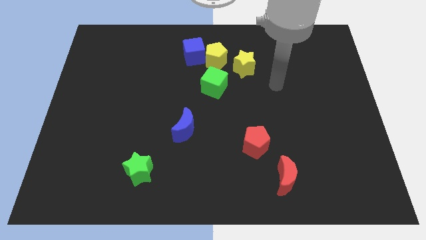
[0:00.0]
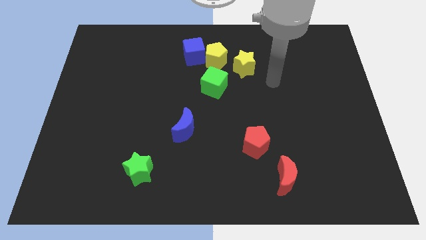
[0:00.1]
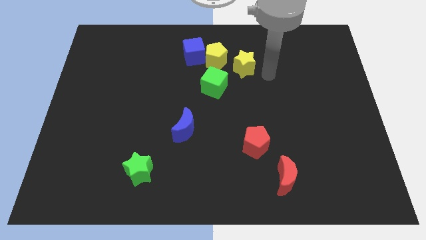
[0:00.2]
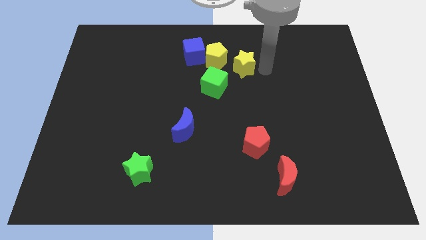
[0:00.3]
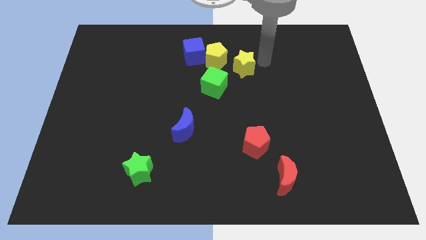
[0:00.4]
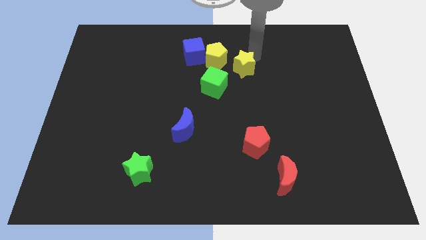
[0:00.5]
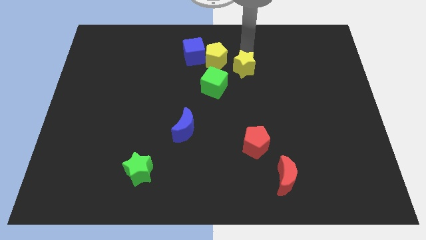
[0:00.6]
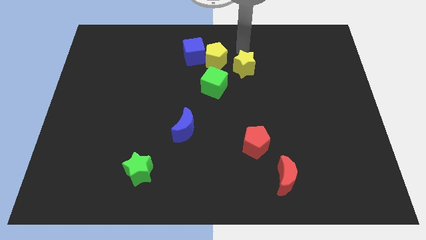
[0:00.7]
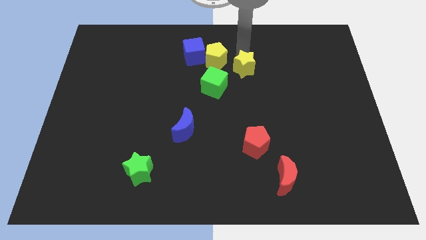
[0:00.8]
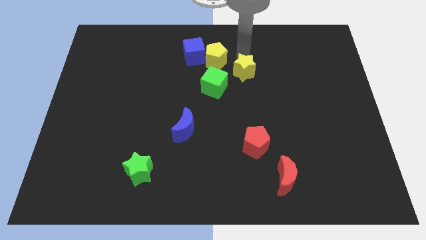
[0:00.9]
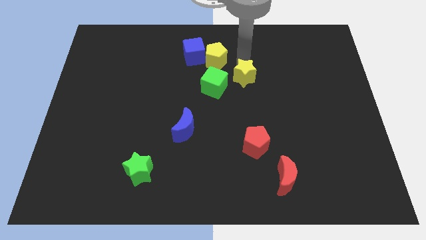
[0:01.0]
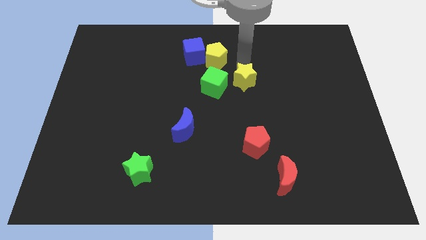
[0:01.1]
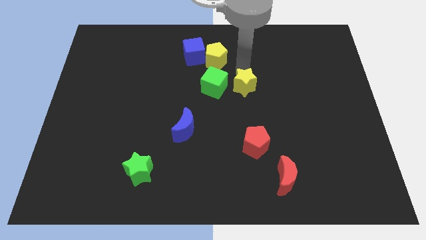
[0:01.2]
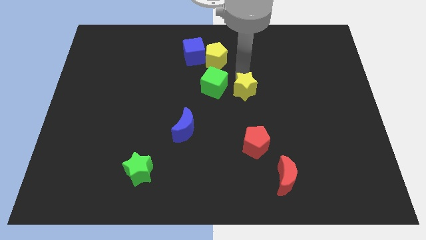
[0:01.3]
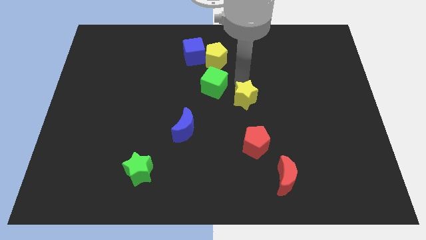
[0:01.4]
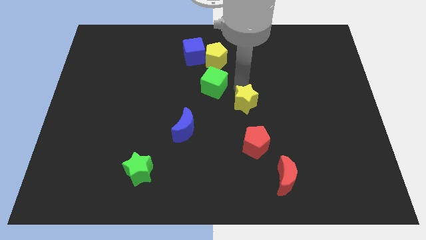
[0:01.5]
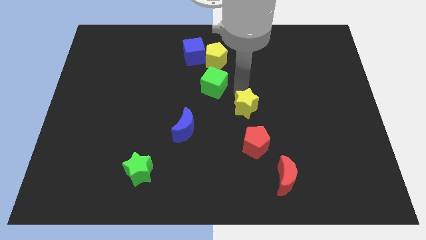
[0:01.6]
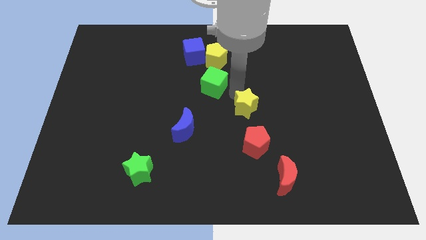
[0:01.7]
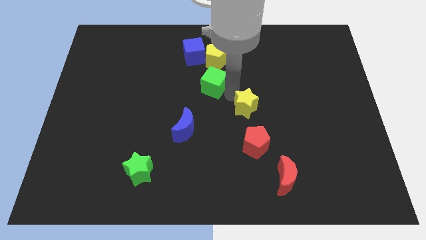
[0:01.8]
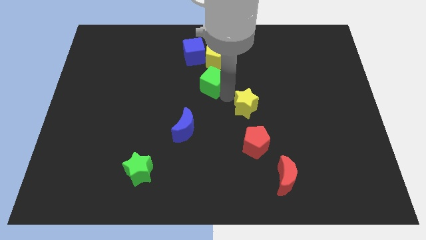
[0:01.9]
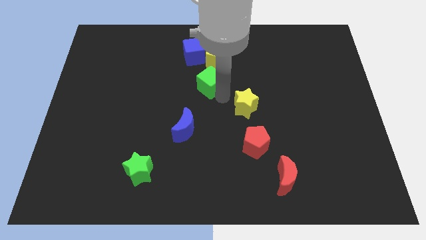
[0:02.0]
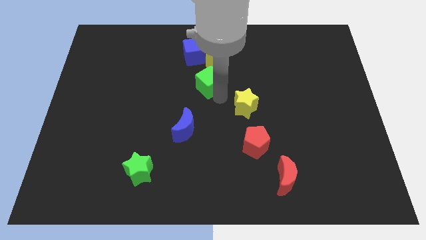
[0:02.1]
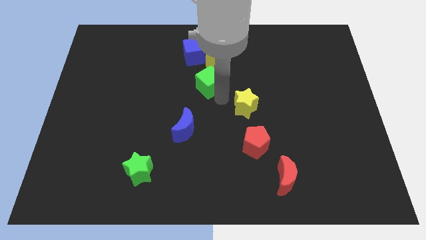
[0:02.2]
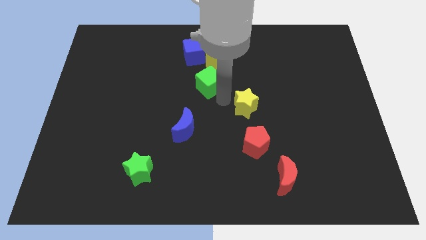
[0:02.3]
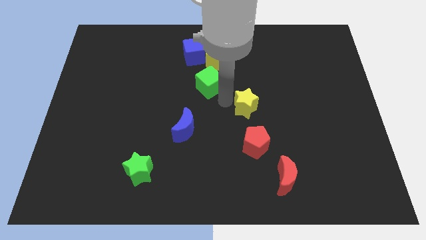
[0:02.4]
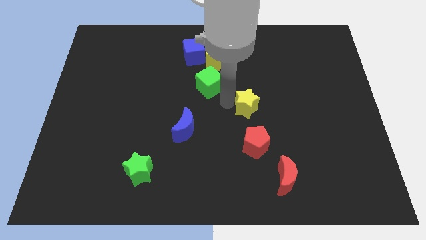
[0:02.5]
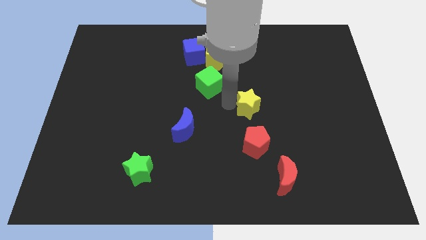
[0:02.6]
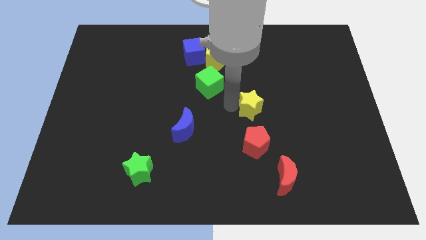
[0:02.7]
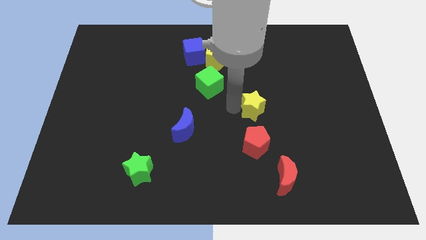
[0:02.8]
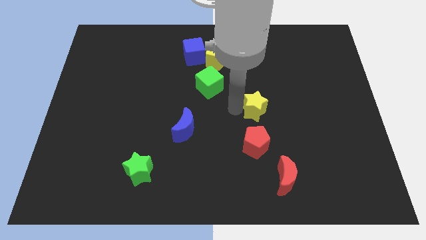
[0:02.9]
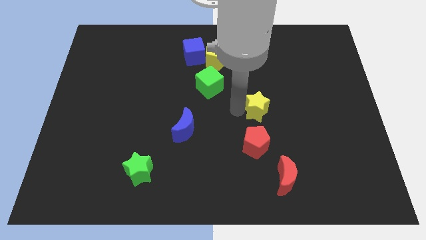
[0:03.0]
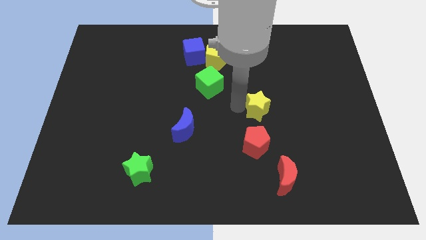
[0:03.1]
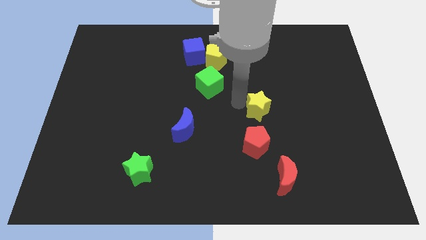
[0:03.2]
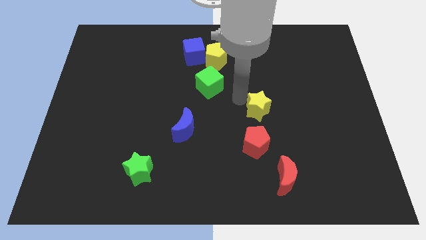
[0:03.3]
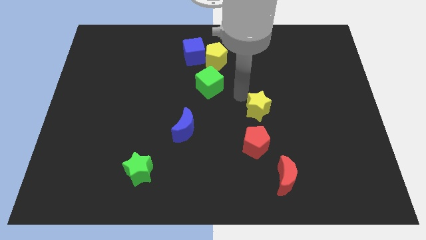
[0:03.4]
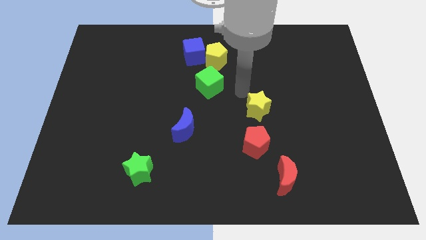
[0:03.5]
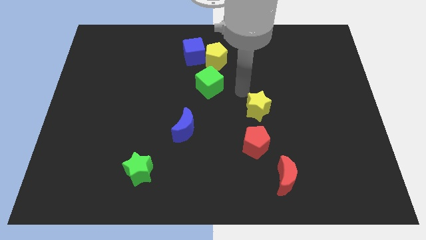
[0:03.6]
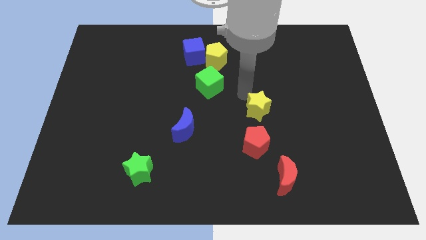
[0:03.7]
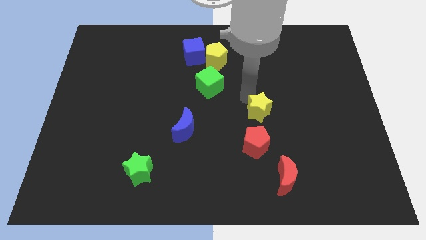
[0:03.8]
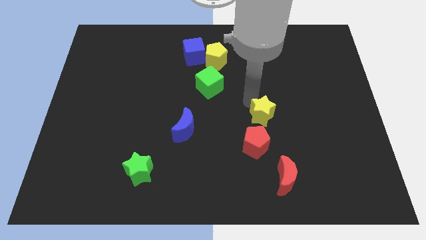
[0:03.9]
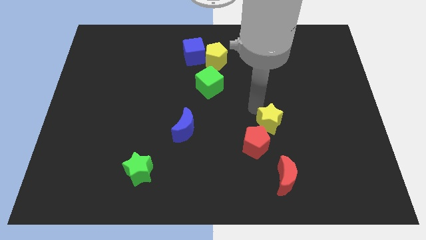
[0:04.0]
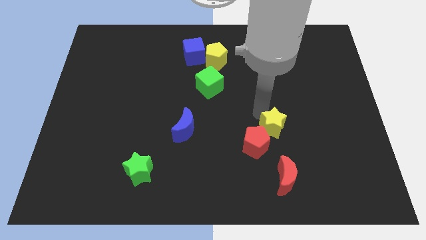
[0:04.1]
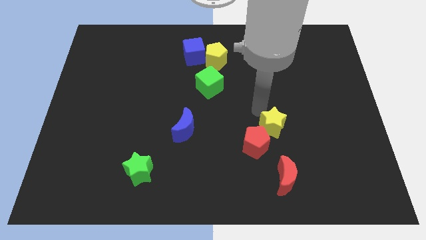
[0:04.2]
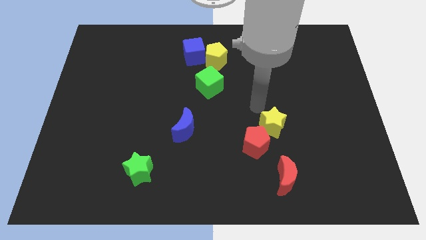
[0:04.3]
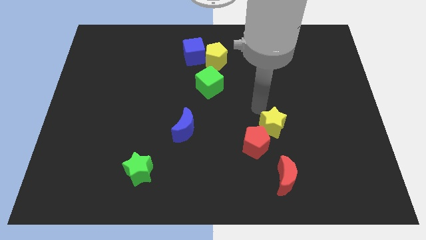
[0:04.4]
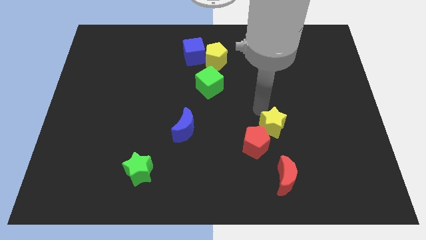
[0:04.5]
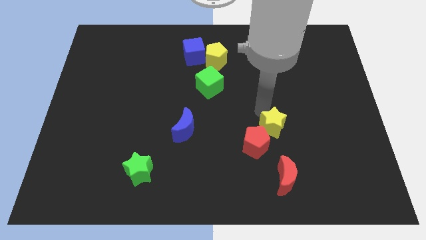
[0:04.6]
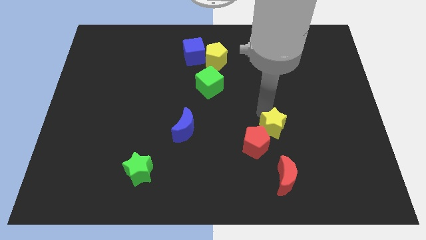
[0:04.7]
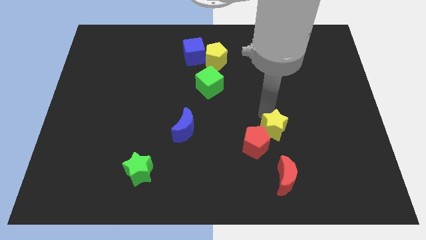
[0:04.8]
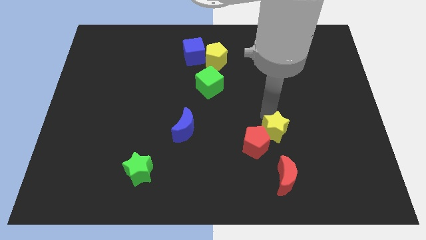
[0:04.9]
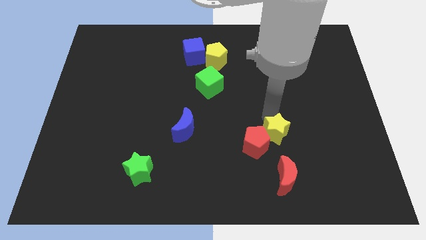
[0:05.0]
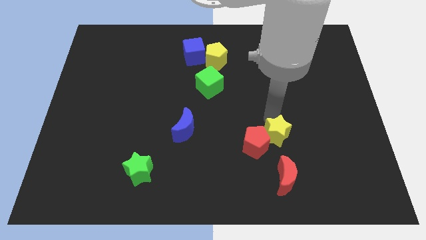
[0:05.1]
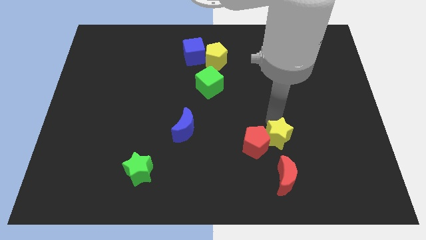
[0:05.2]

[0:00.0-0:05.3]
push the yellow star down

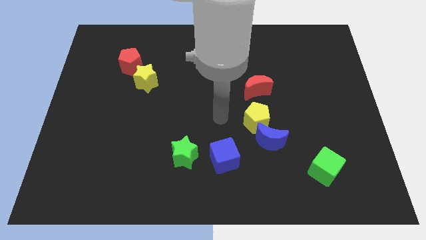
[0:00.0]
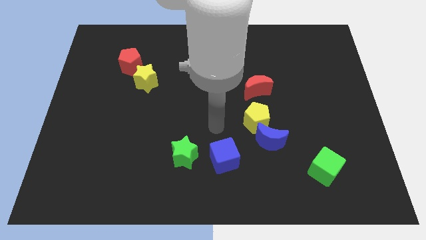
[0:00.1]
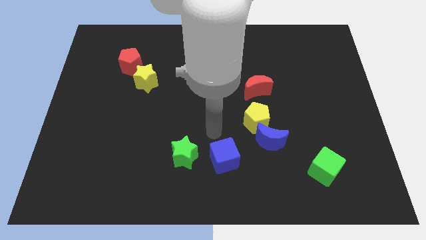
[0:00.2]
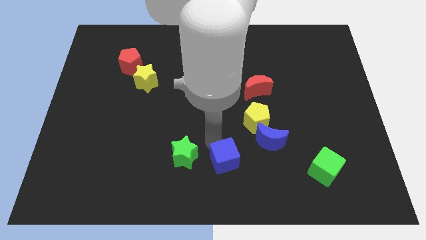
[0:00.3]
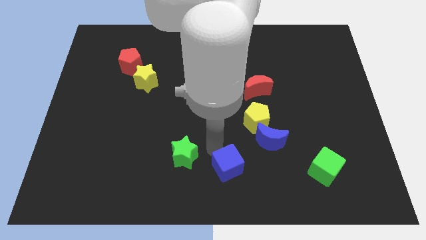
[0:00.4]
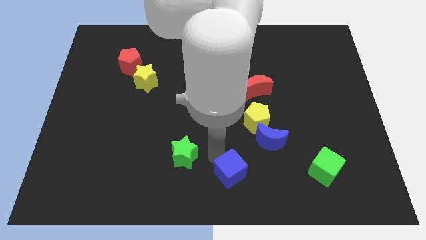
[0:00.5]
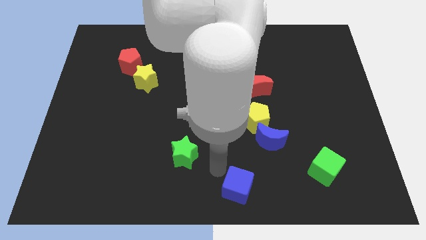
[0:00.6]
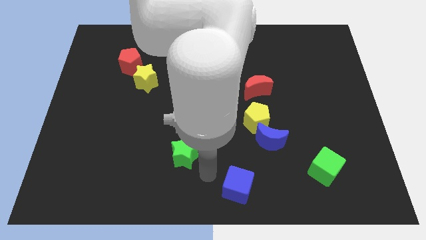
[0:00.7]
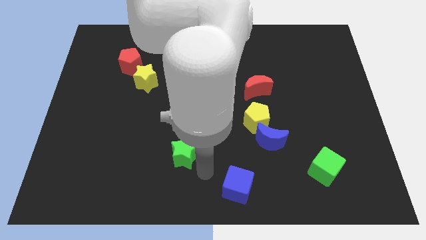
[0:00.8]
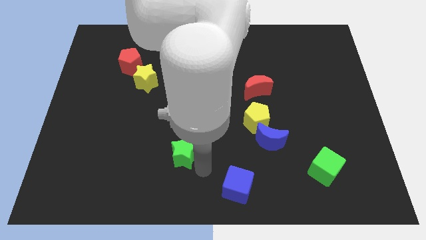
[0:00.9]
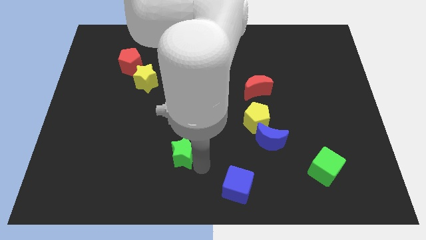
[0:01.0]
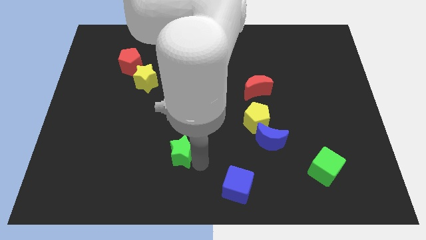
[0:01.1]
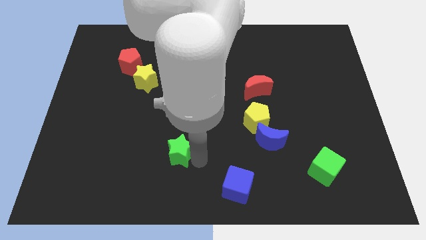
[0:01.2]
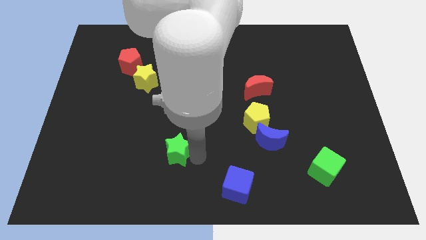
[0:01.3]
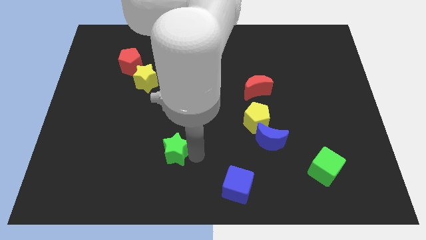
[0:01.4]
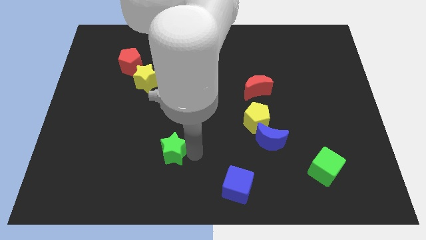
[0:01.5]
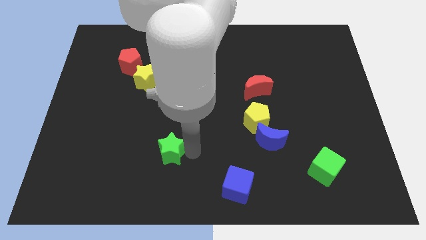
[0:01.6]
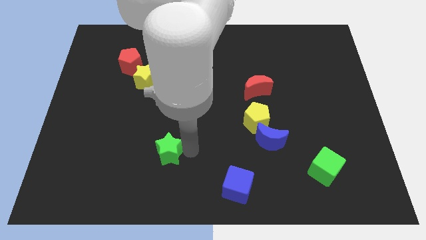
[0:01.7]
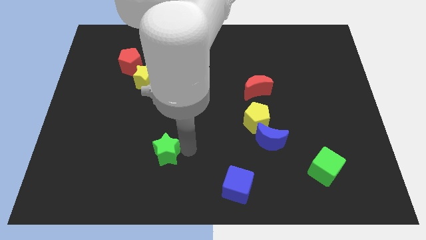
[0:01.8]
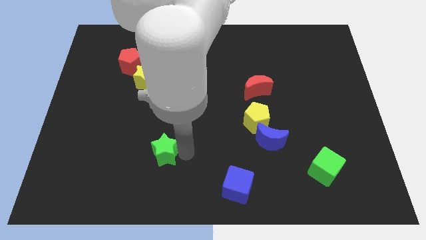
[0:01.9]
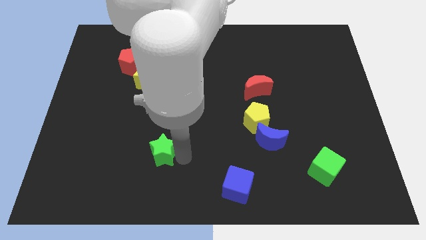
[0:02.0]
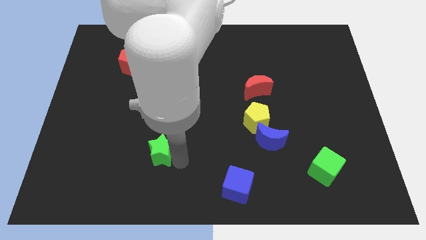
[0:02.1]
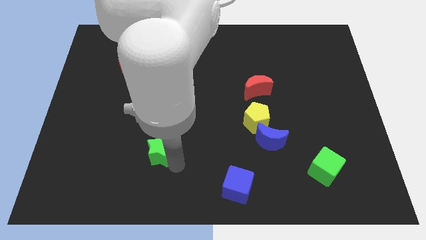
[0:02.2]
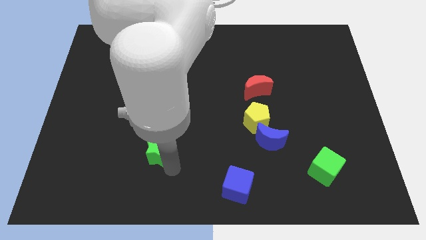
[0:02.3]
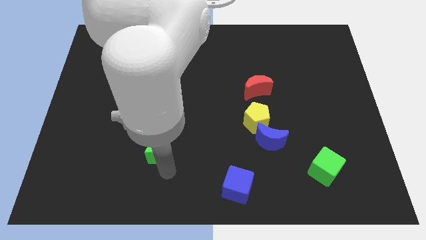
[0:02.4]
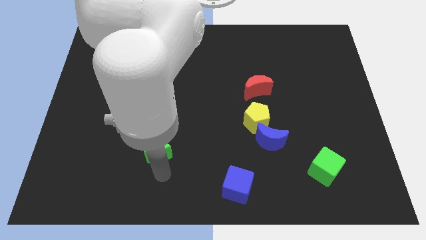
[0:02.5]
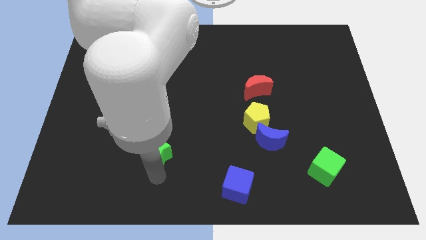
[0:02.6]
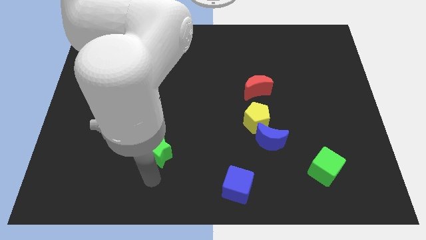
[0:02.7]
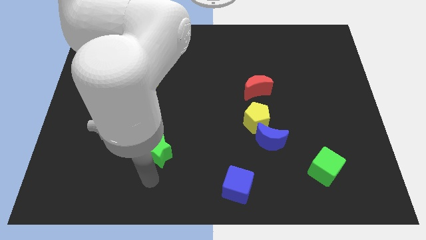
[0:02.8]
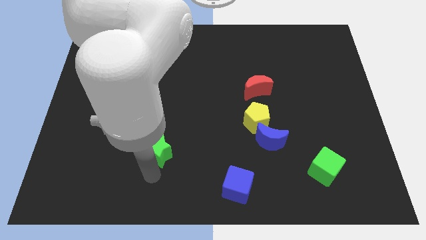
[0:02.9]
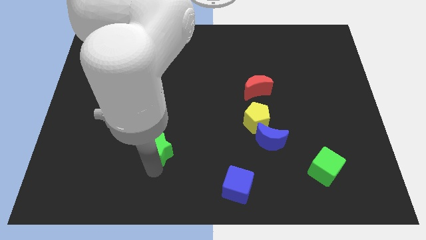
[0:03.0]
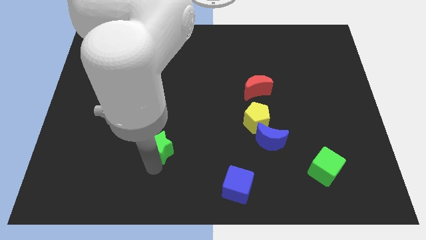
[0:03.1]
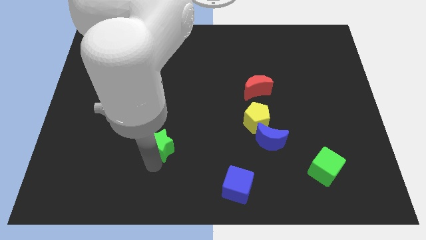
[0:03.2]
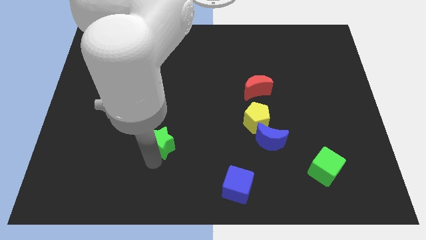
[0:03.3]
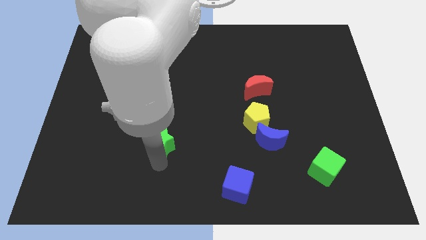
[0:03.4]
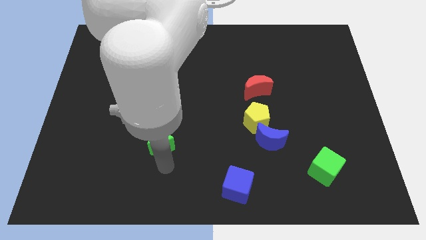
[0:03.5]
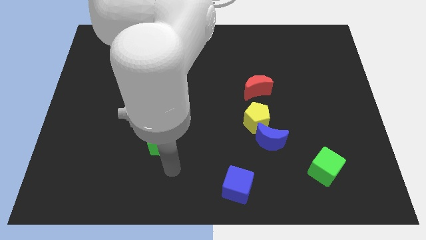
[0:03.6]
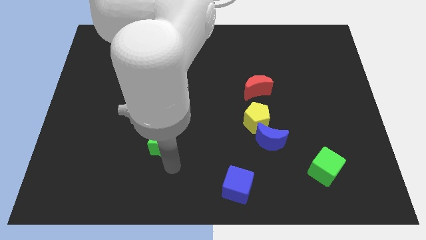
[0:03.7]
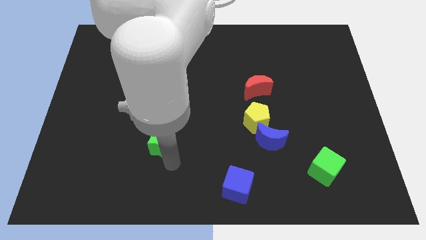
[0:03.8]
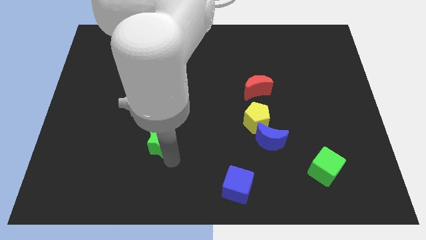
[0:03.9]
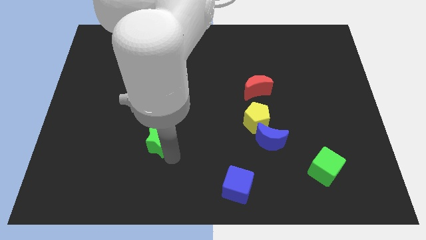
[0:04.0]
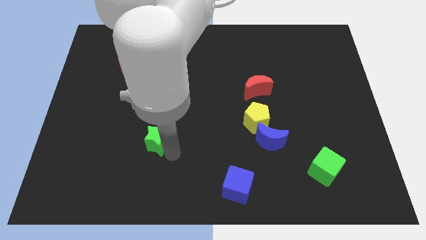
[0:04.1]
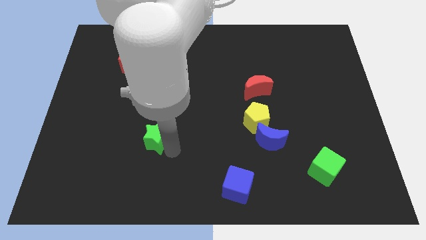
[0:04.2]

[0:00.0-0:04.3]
slightly move the green star upwards and left diagonally
